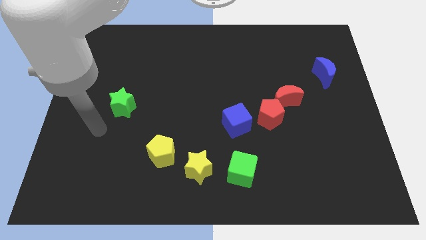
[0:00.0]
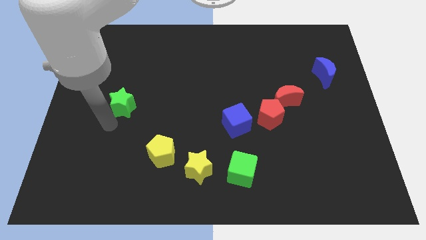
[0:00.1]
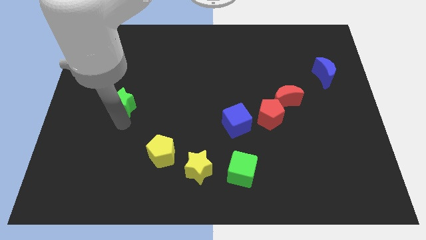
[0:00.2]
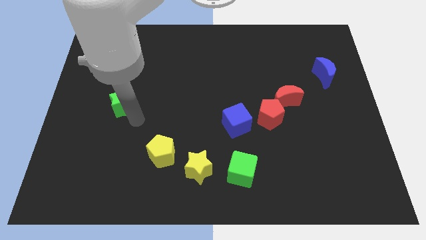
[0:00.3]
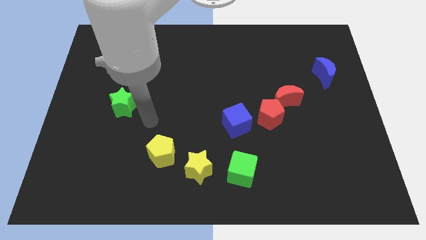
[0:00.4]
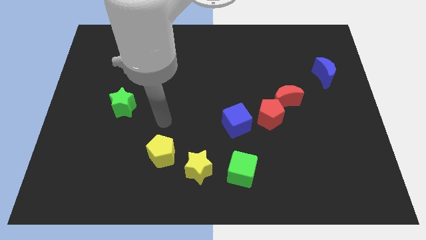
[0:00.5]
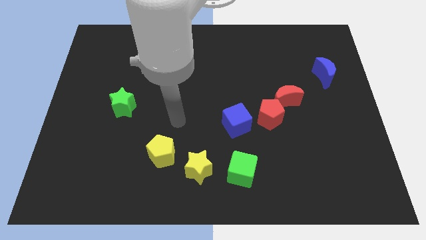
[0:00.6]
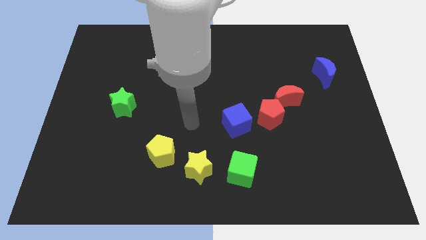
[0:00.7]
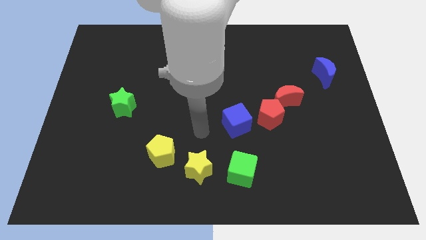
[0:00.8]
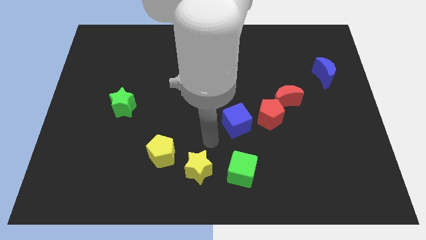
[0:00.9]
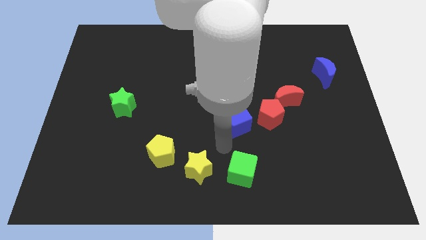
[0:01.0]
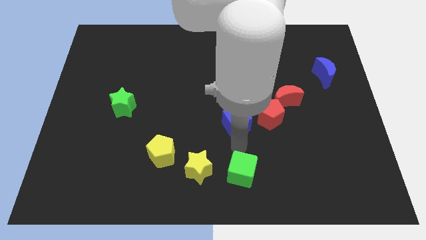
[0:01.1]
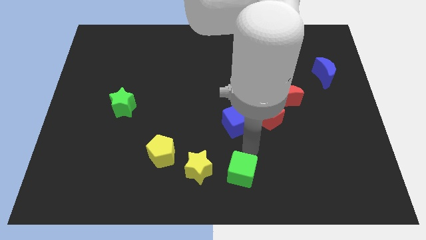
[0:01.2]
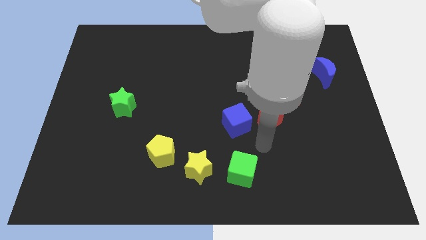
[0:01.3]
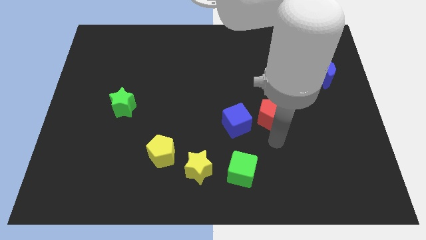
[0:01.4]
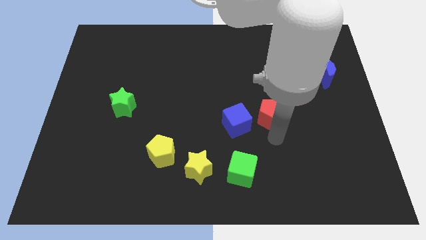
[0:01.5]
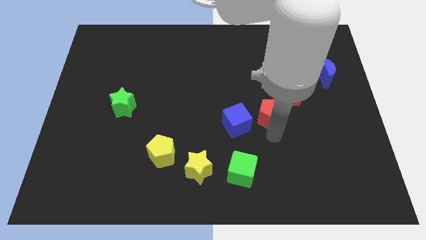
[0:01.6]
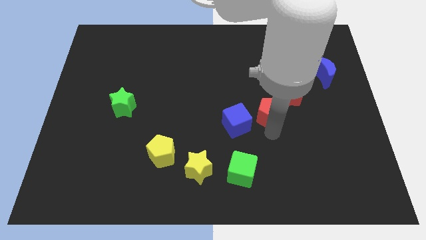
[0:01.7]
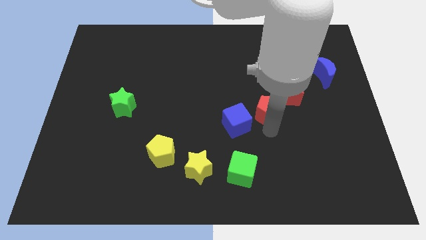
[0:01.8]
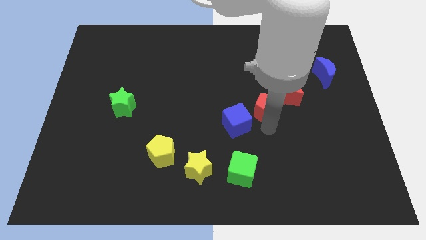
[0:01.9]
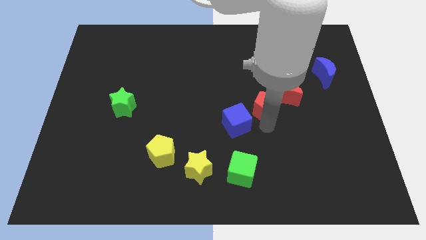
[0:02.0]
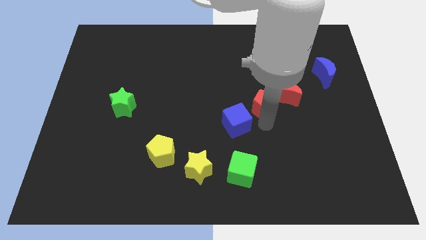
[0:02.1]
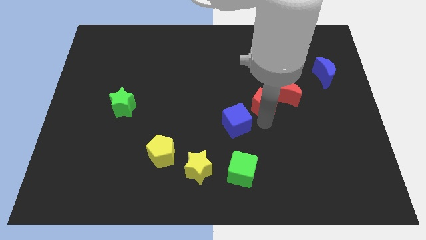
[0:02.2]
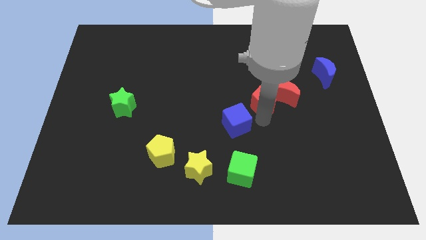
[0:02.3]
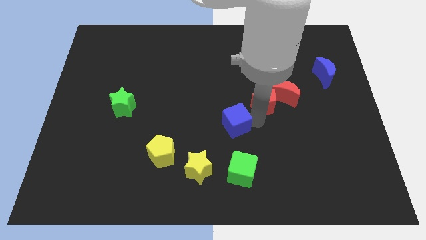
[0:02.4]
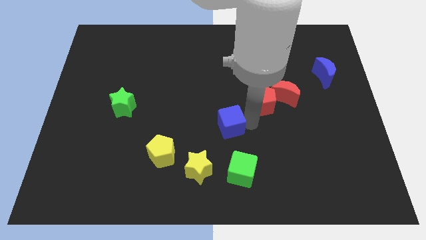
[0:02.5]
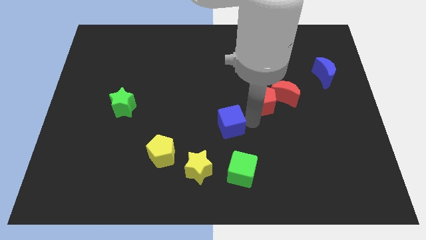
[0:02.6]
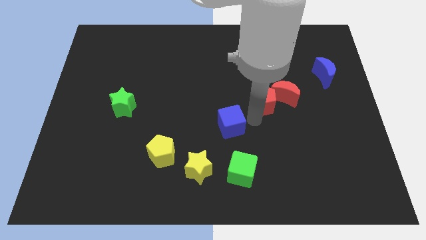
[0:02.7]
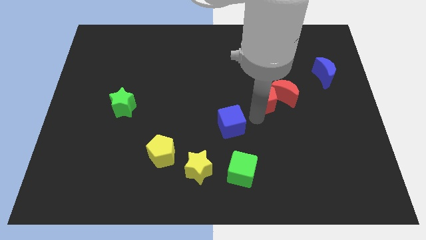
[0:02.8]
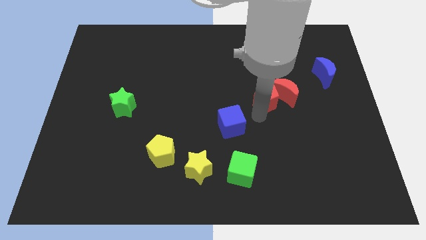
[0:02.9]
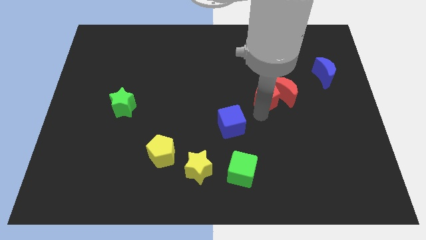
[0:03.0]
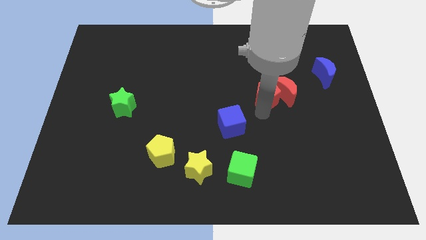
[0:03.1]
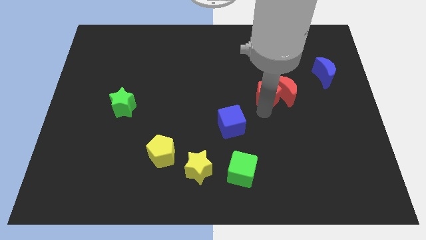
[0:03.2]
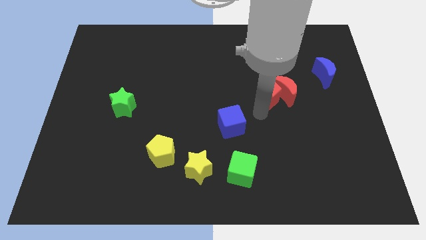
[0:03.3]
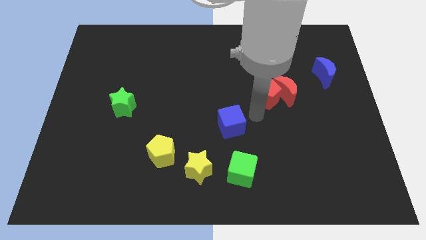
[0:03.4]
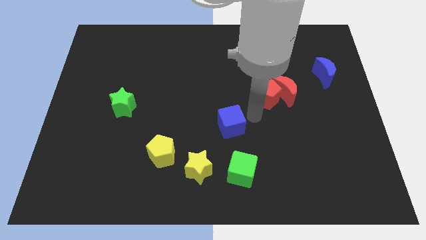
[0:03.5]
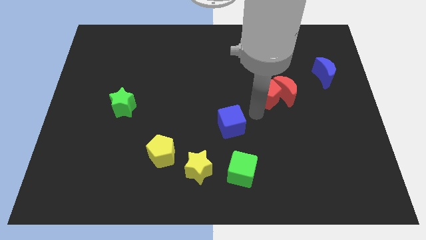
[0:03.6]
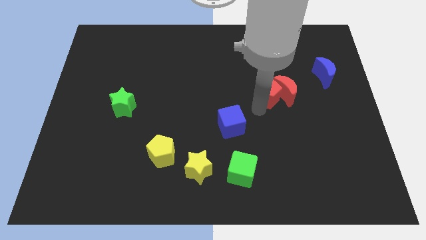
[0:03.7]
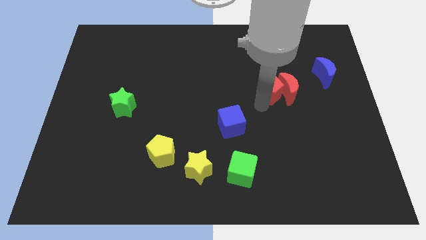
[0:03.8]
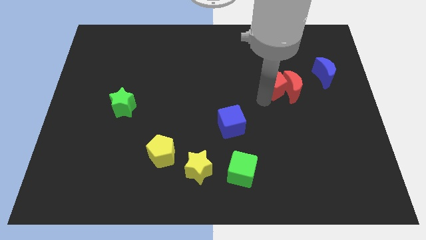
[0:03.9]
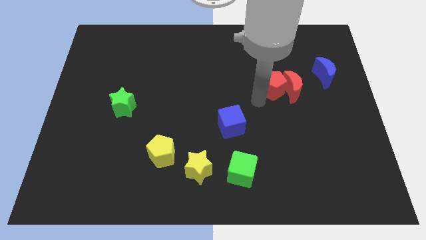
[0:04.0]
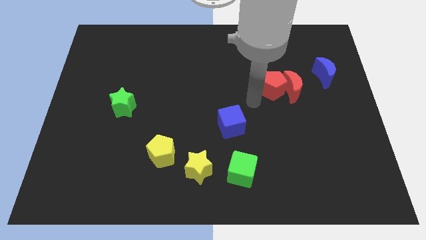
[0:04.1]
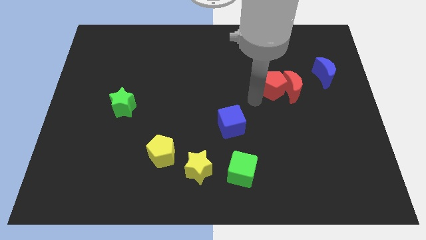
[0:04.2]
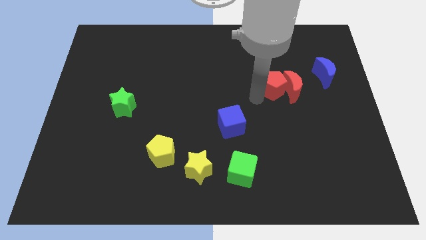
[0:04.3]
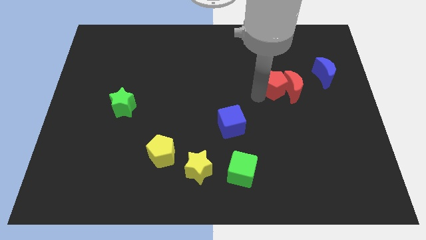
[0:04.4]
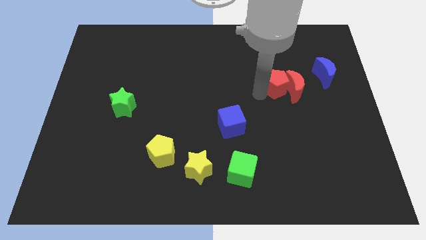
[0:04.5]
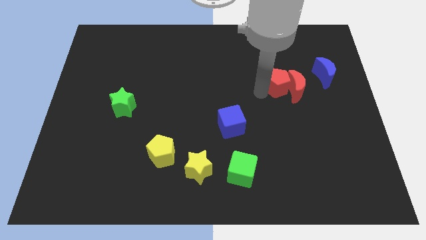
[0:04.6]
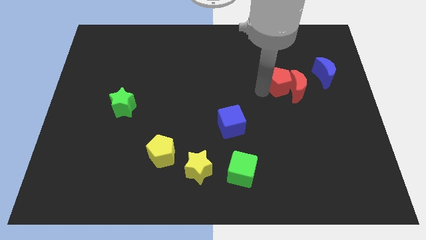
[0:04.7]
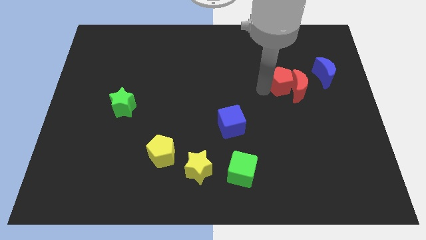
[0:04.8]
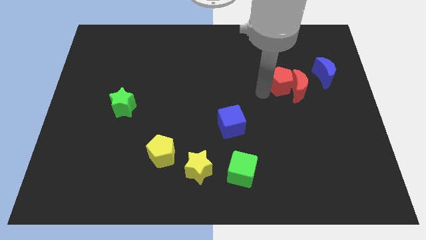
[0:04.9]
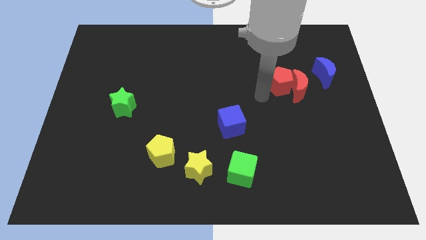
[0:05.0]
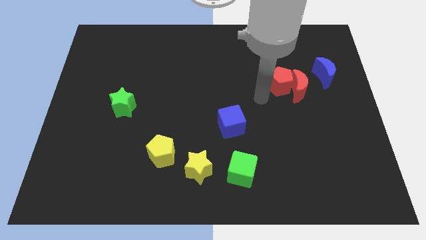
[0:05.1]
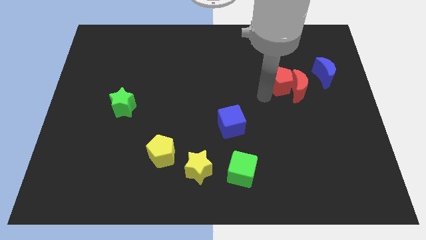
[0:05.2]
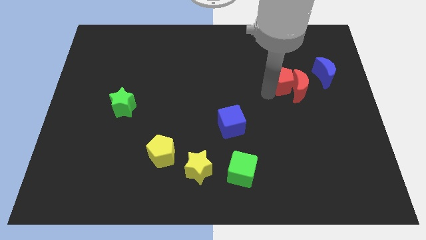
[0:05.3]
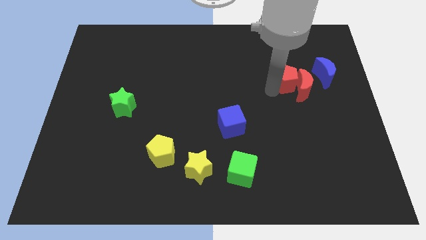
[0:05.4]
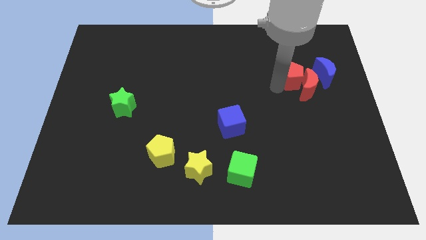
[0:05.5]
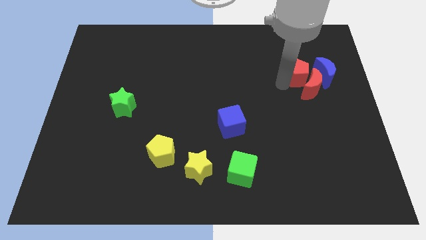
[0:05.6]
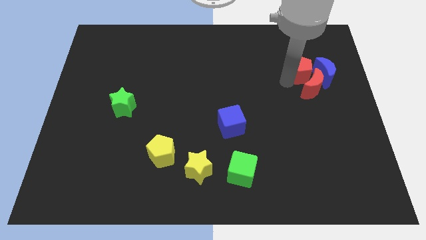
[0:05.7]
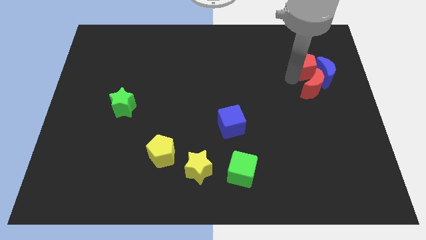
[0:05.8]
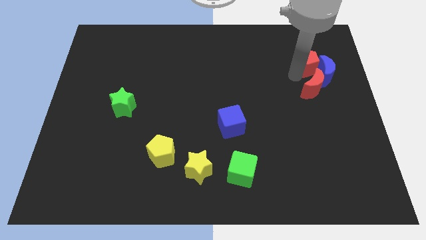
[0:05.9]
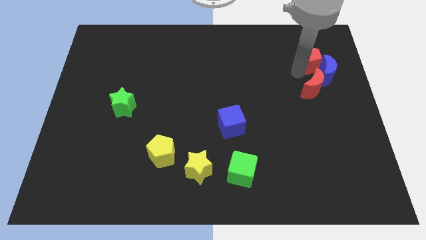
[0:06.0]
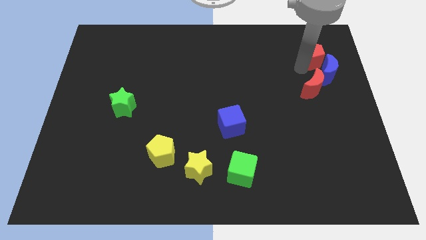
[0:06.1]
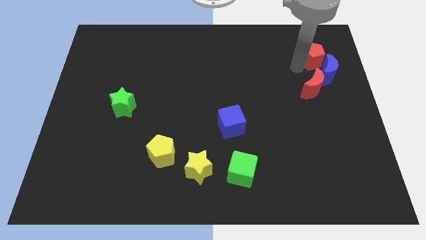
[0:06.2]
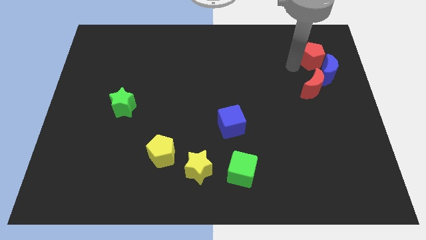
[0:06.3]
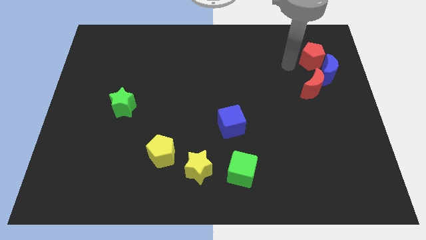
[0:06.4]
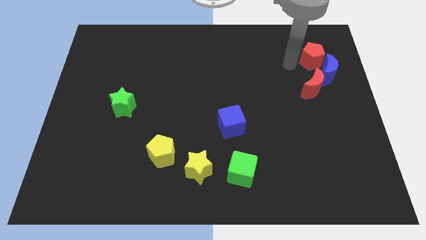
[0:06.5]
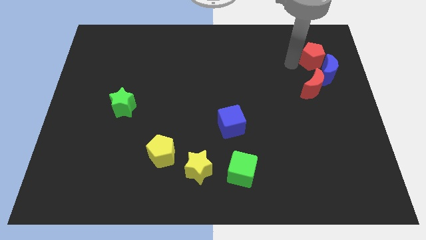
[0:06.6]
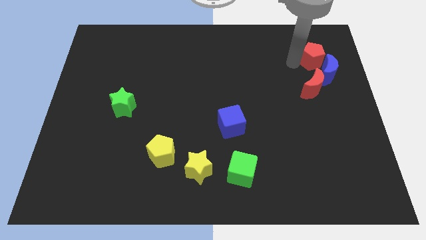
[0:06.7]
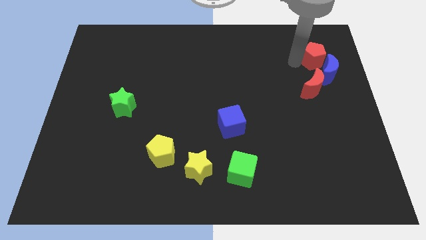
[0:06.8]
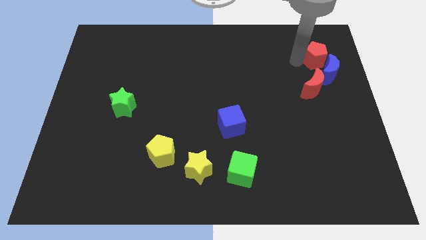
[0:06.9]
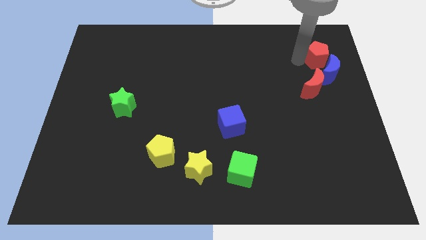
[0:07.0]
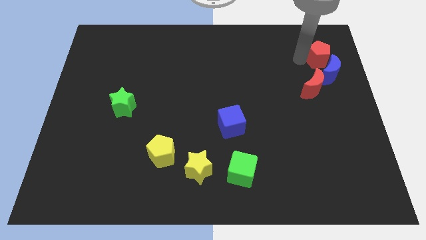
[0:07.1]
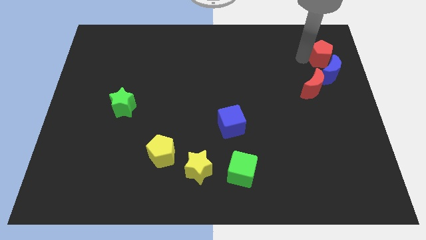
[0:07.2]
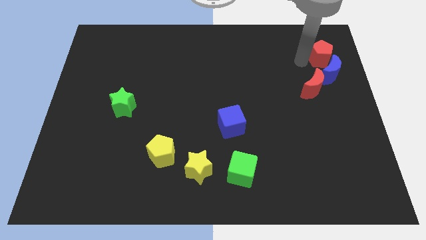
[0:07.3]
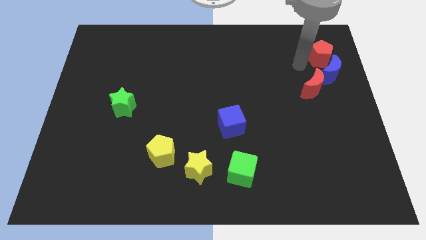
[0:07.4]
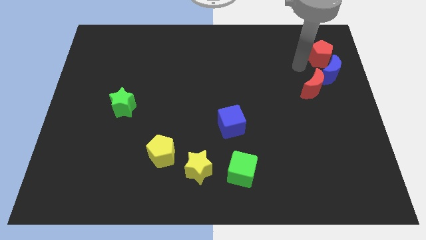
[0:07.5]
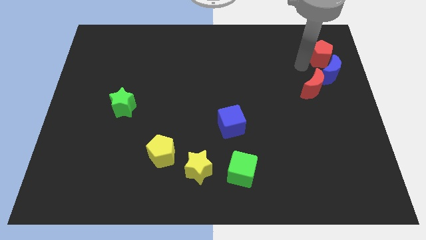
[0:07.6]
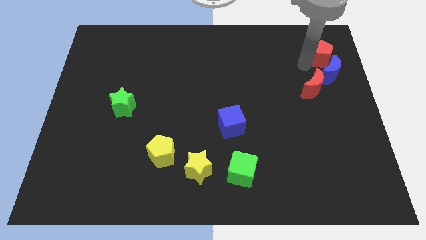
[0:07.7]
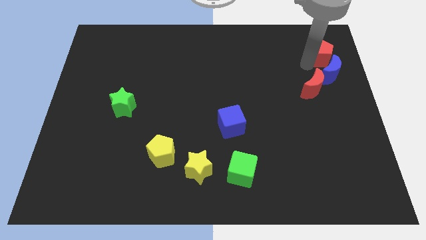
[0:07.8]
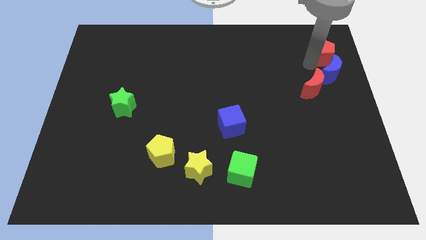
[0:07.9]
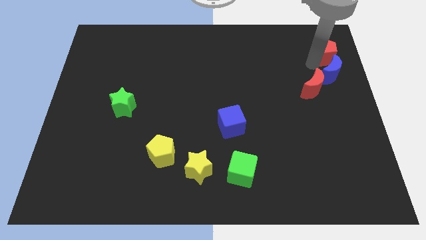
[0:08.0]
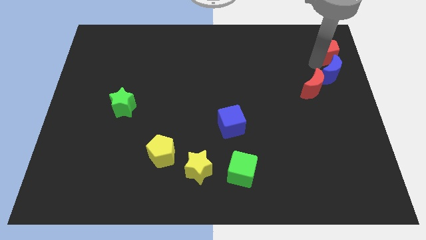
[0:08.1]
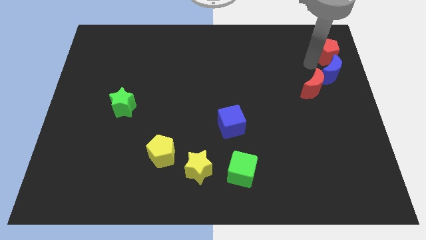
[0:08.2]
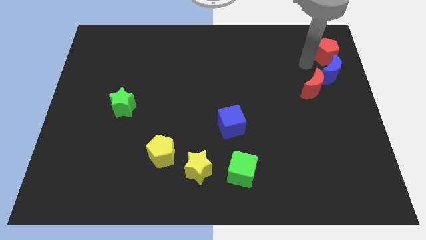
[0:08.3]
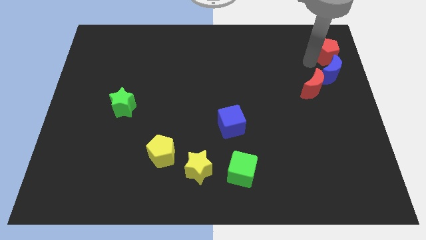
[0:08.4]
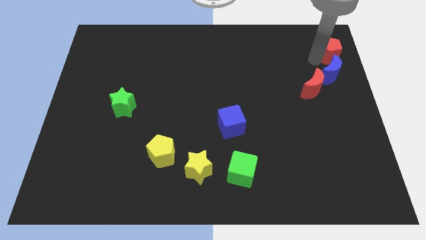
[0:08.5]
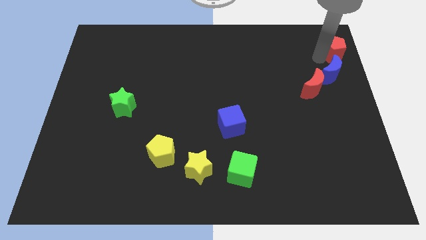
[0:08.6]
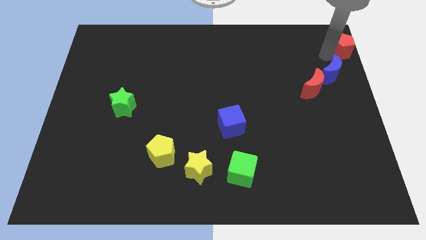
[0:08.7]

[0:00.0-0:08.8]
slide the red pentagon to the top right of the board
